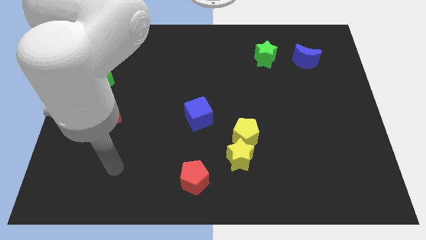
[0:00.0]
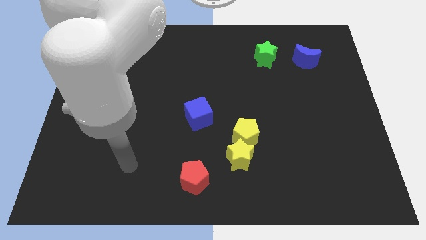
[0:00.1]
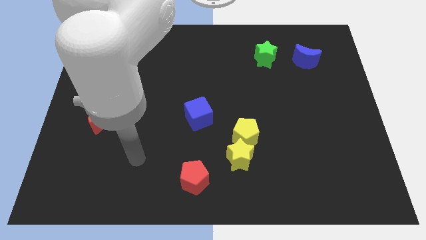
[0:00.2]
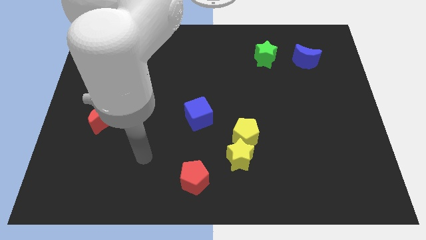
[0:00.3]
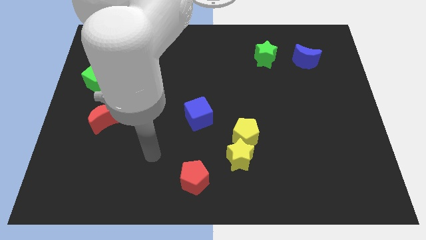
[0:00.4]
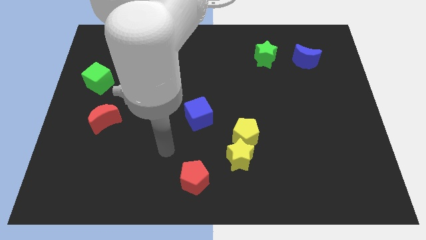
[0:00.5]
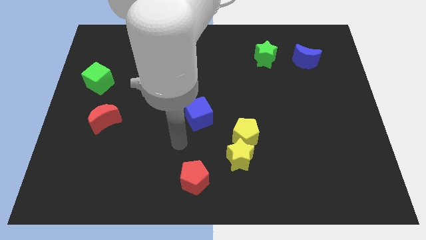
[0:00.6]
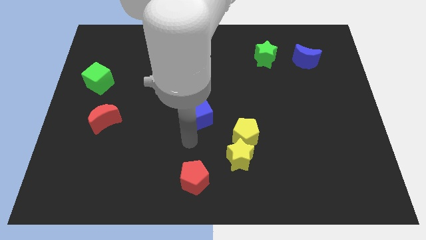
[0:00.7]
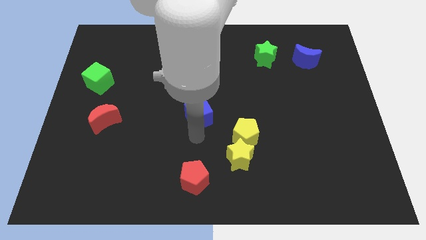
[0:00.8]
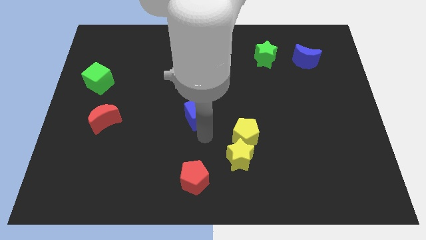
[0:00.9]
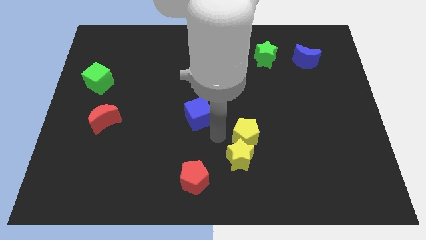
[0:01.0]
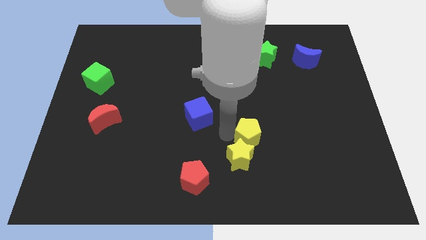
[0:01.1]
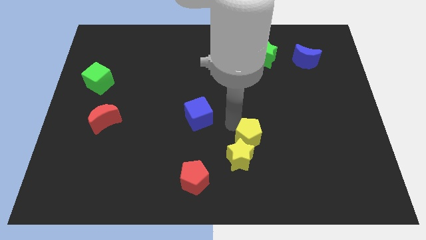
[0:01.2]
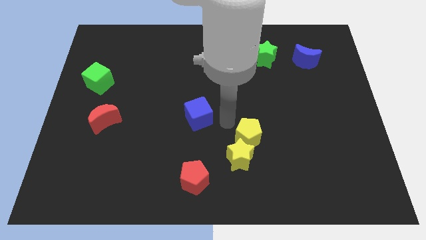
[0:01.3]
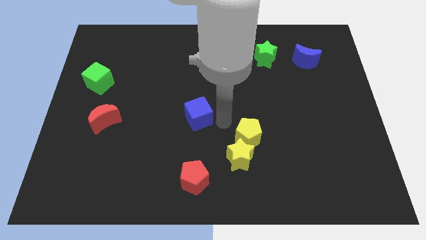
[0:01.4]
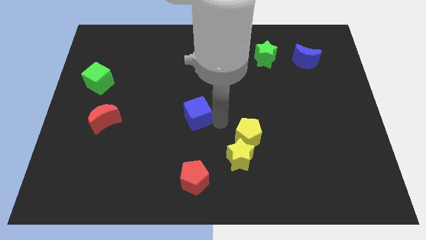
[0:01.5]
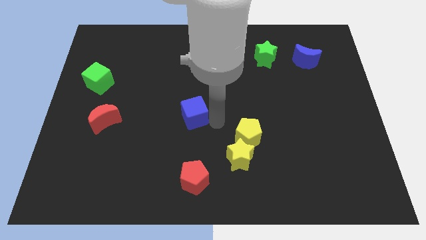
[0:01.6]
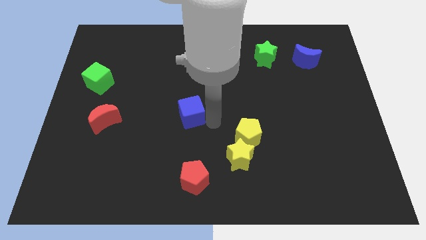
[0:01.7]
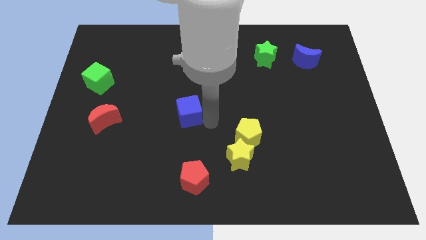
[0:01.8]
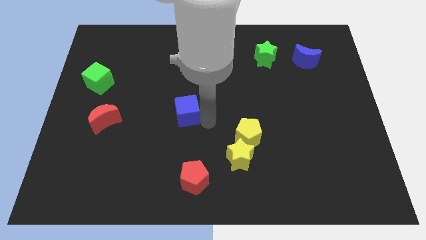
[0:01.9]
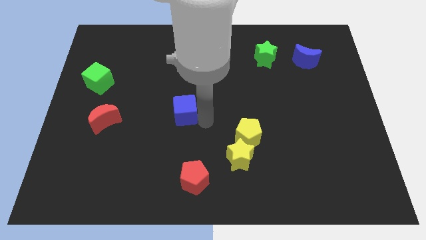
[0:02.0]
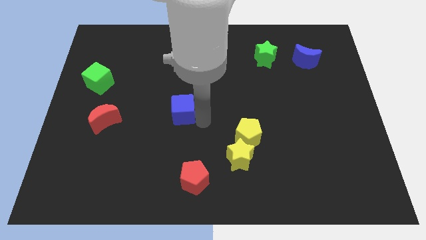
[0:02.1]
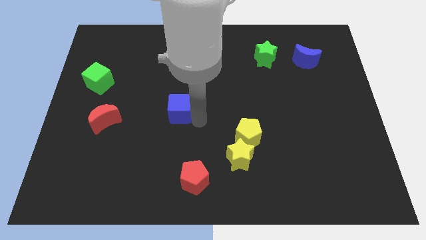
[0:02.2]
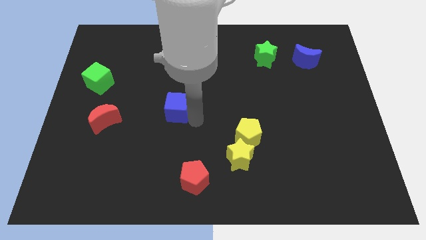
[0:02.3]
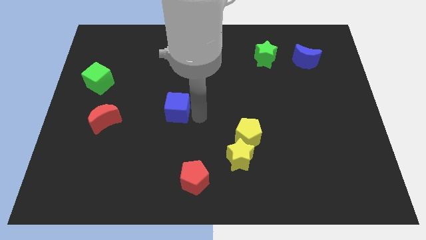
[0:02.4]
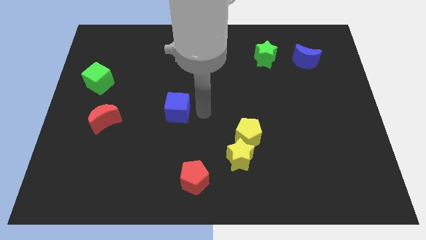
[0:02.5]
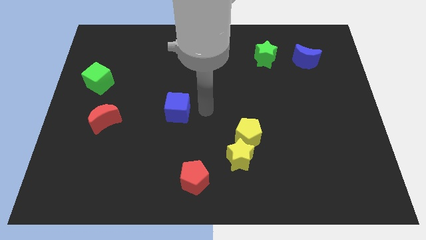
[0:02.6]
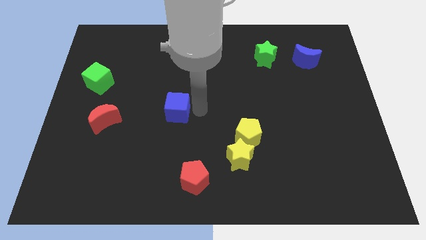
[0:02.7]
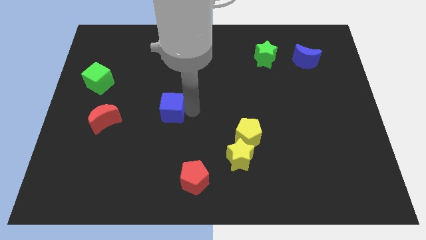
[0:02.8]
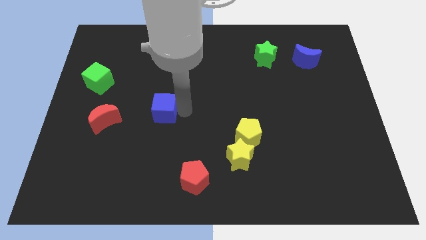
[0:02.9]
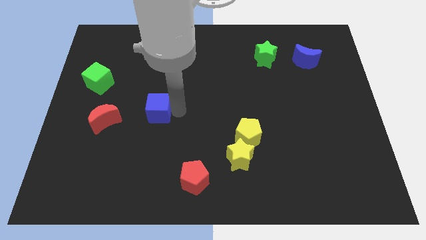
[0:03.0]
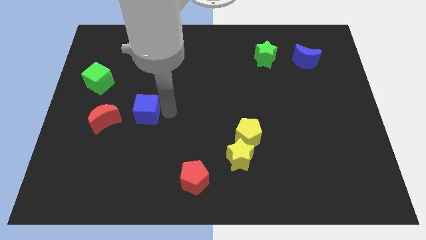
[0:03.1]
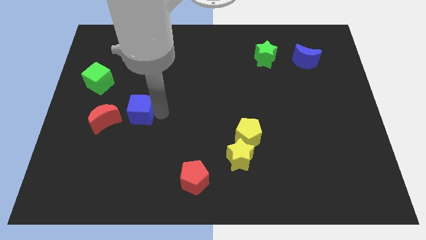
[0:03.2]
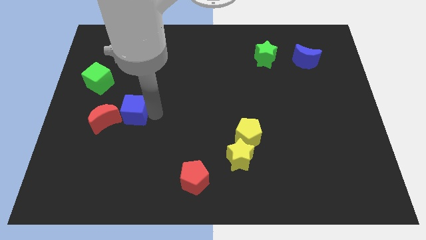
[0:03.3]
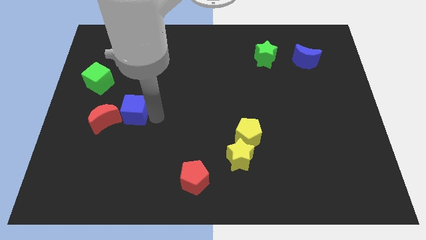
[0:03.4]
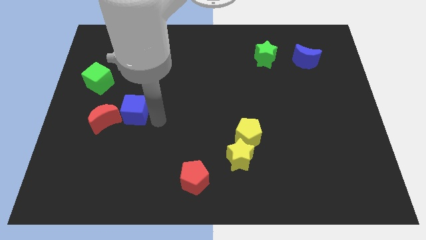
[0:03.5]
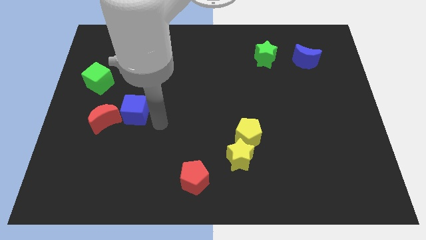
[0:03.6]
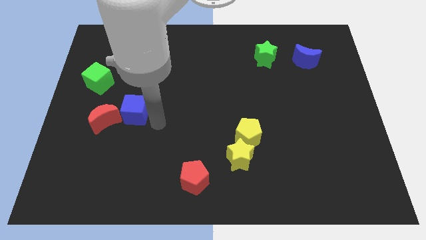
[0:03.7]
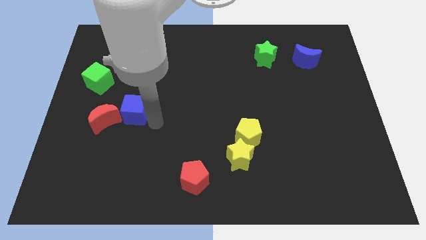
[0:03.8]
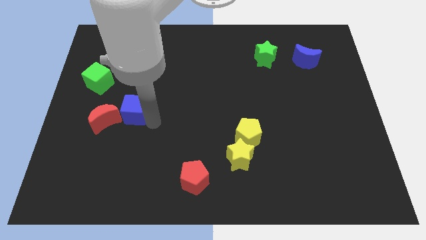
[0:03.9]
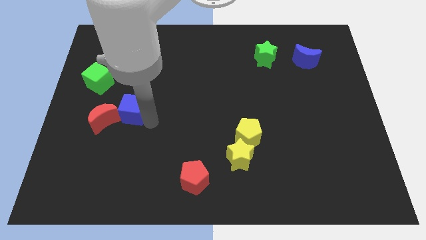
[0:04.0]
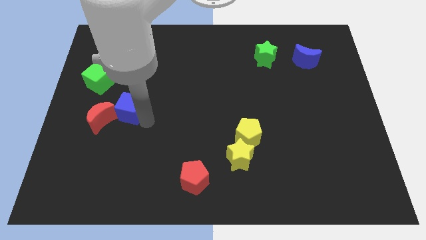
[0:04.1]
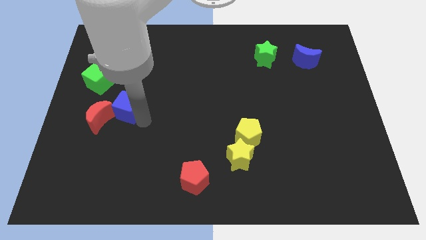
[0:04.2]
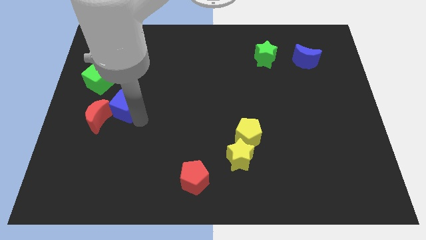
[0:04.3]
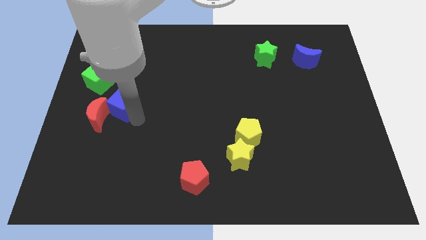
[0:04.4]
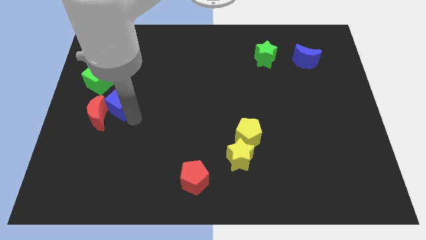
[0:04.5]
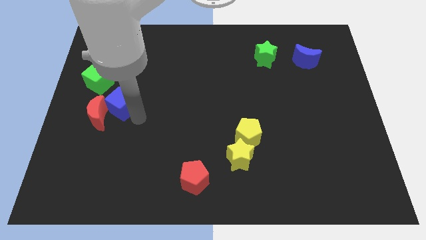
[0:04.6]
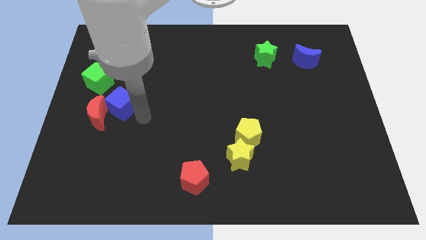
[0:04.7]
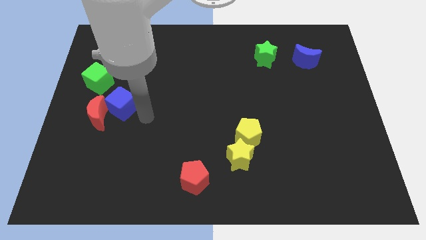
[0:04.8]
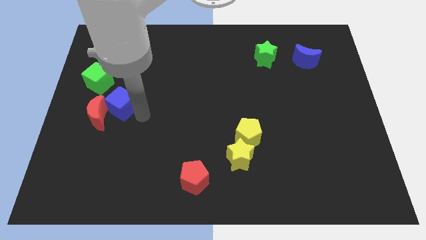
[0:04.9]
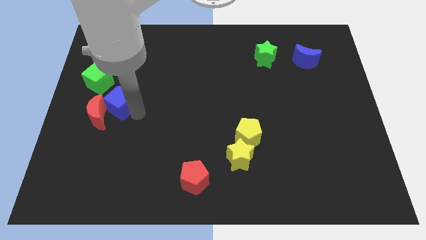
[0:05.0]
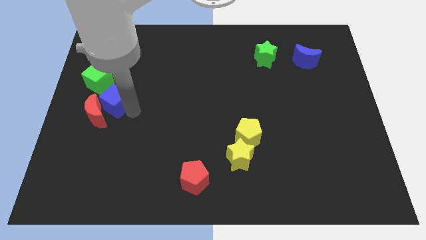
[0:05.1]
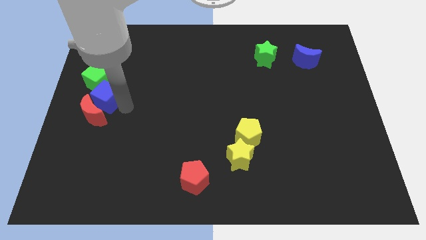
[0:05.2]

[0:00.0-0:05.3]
slide the blue cube to the left side
